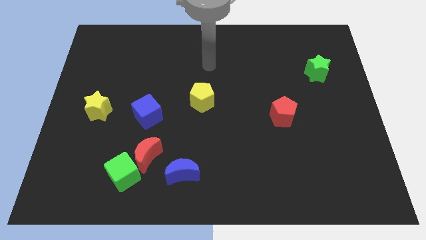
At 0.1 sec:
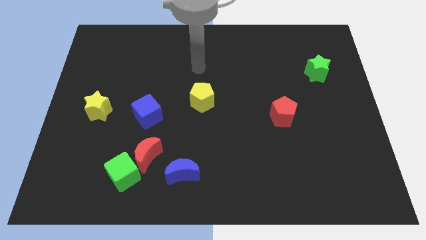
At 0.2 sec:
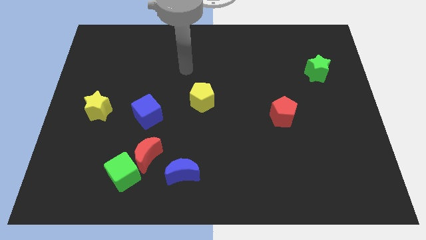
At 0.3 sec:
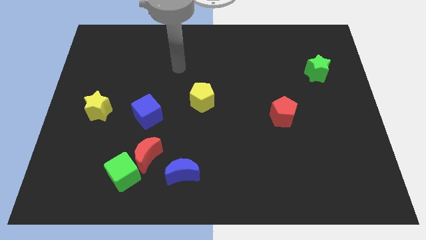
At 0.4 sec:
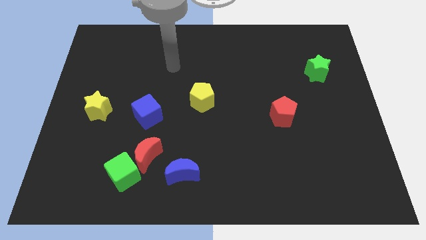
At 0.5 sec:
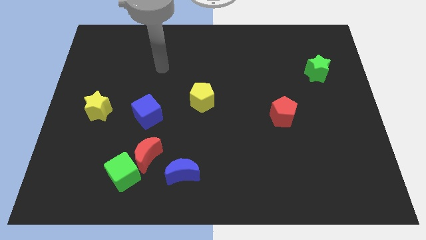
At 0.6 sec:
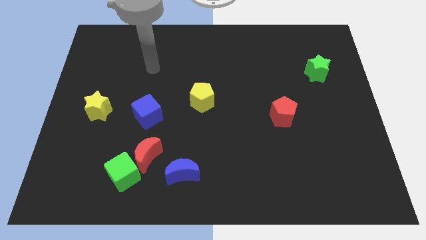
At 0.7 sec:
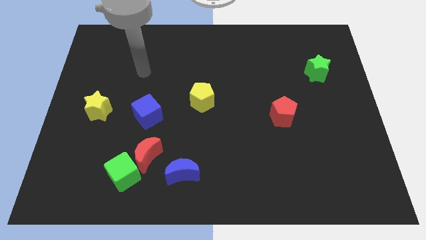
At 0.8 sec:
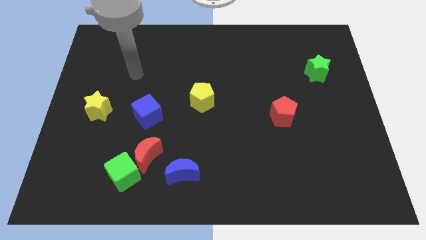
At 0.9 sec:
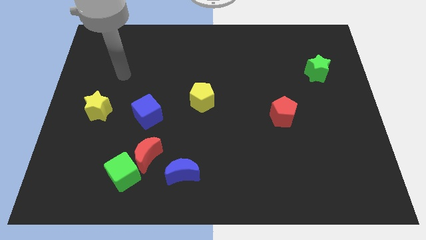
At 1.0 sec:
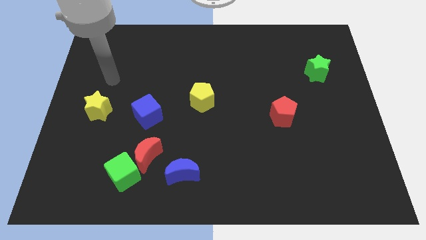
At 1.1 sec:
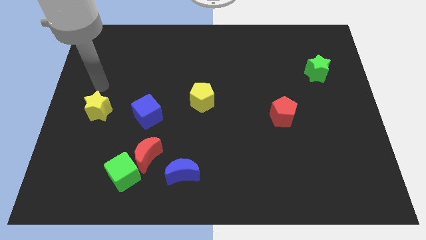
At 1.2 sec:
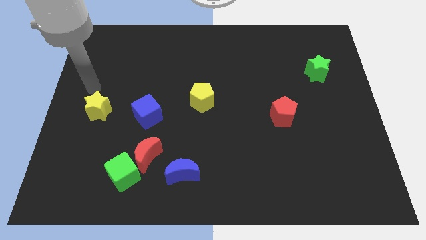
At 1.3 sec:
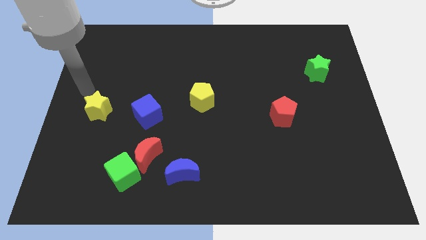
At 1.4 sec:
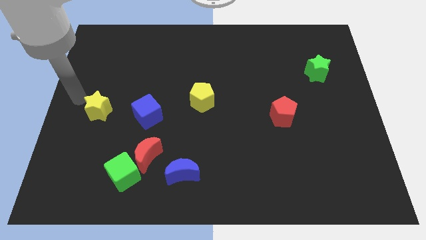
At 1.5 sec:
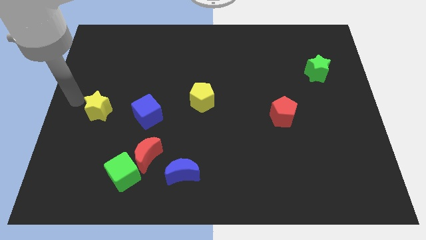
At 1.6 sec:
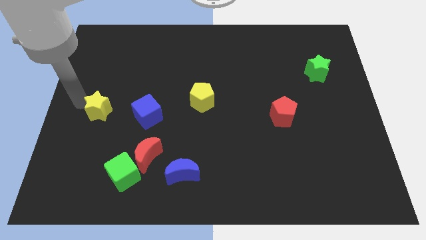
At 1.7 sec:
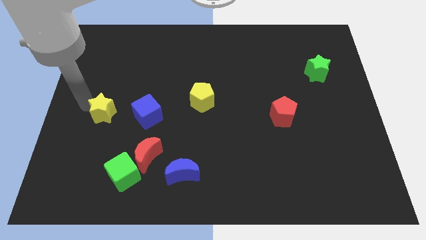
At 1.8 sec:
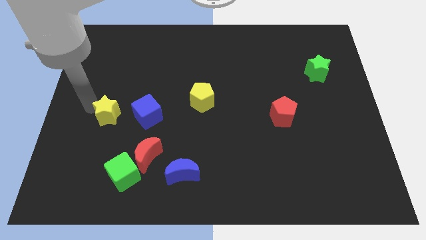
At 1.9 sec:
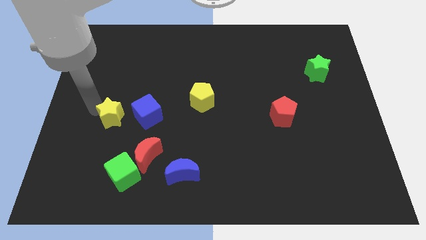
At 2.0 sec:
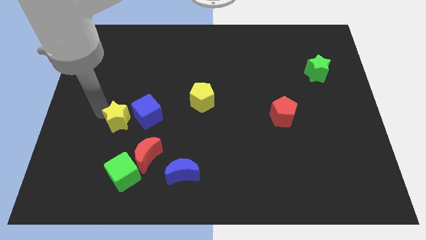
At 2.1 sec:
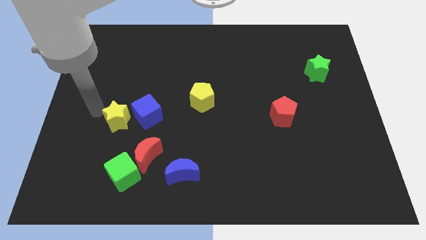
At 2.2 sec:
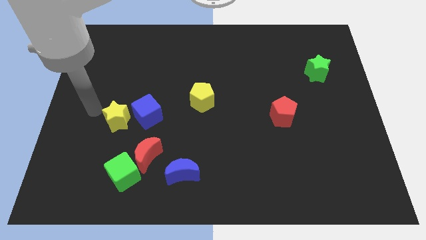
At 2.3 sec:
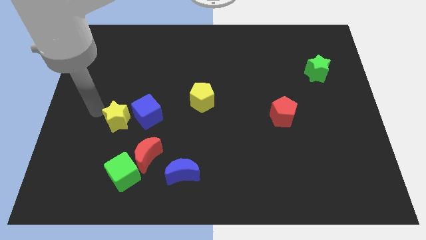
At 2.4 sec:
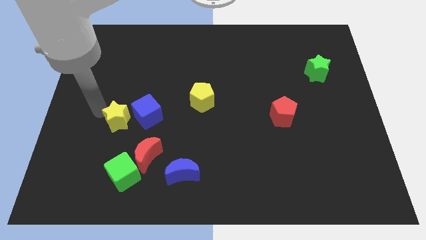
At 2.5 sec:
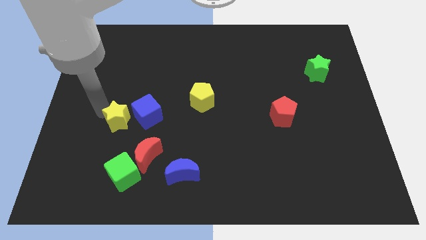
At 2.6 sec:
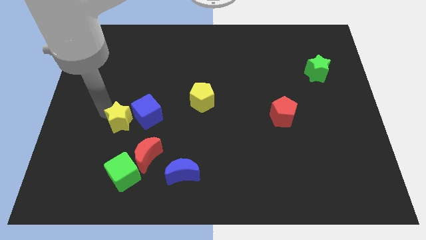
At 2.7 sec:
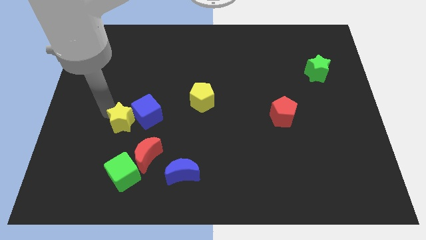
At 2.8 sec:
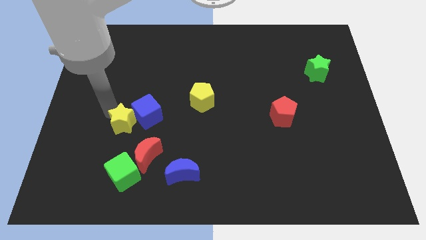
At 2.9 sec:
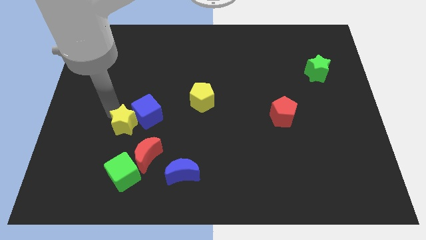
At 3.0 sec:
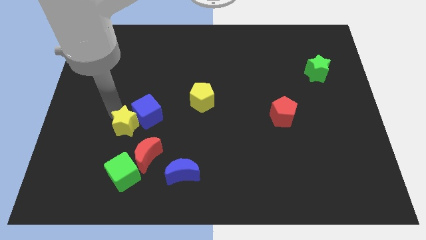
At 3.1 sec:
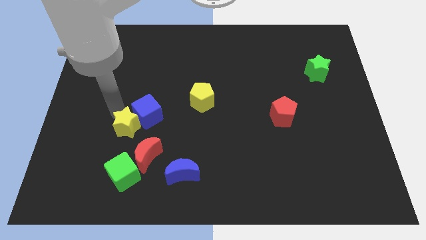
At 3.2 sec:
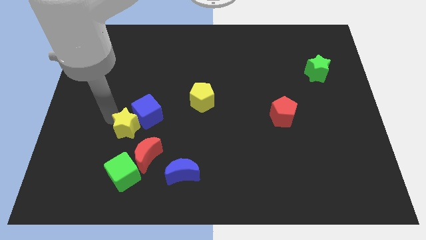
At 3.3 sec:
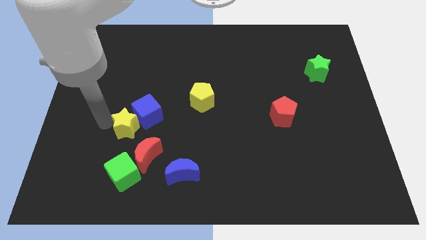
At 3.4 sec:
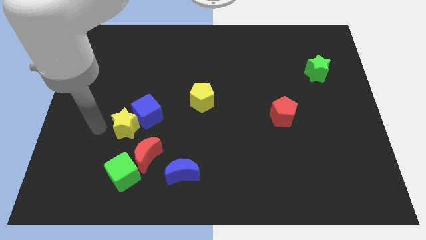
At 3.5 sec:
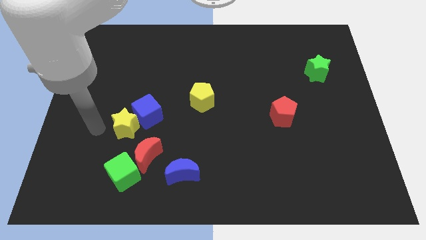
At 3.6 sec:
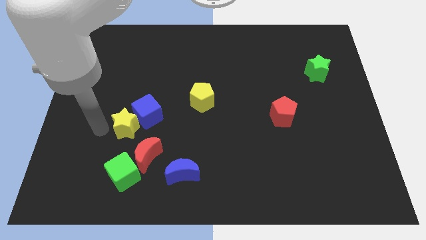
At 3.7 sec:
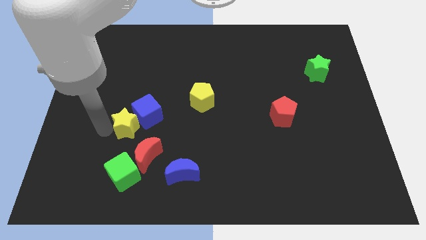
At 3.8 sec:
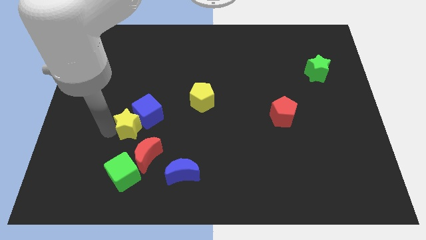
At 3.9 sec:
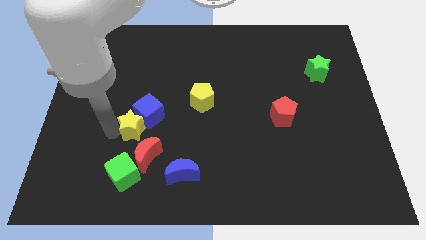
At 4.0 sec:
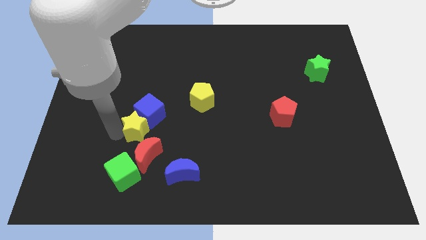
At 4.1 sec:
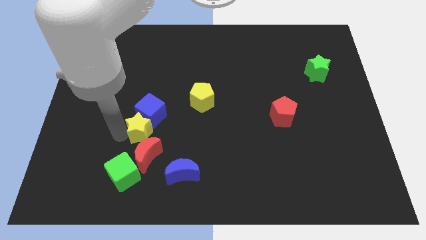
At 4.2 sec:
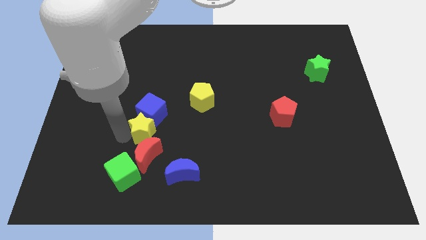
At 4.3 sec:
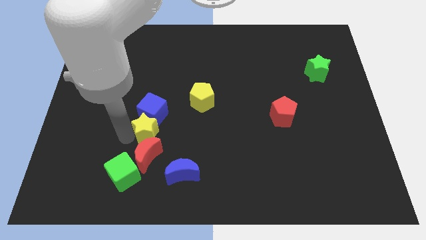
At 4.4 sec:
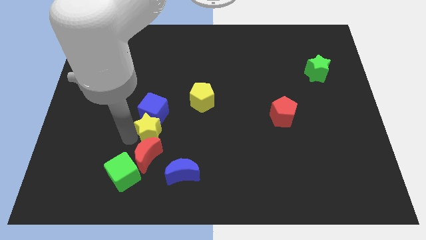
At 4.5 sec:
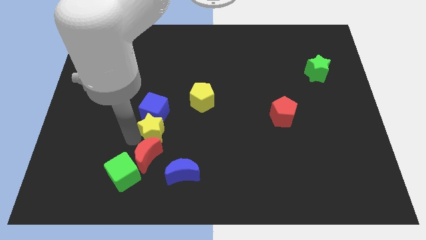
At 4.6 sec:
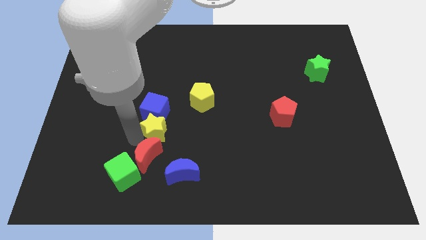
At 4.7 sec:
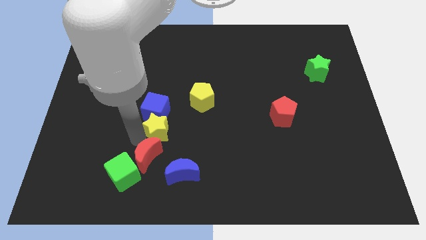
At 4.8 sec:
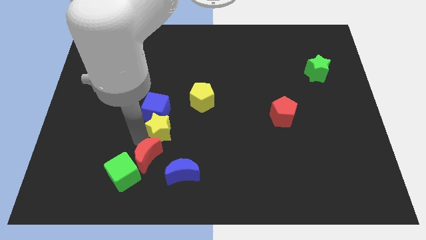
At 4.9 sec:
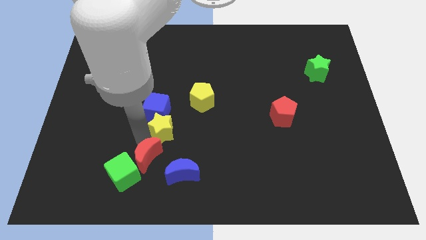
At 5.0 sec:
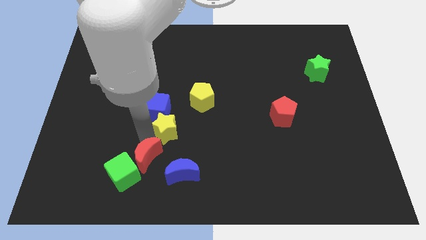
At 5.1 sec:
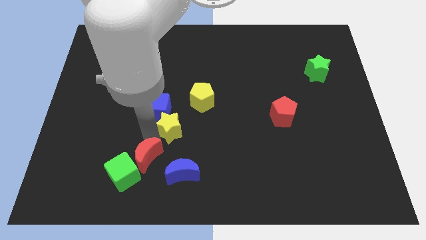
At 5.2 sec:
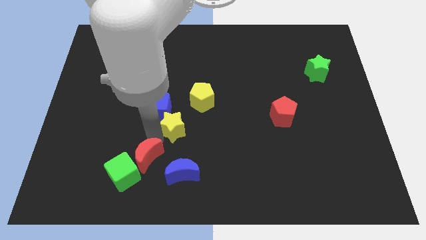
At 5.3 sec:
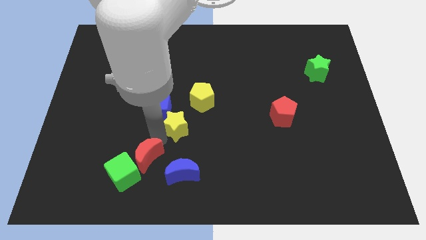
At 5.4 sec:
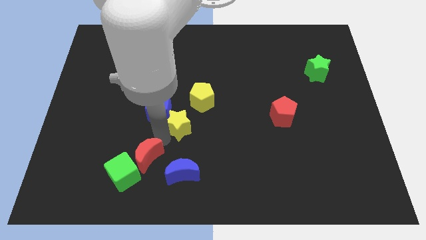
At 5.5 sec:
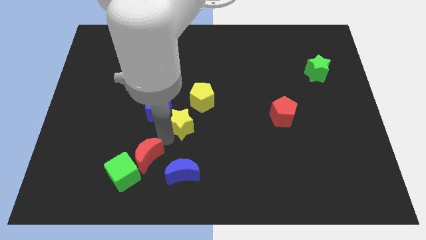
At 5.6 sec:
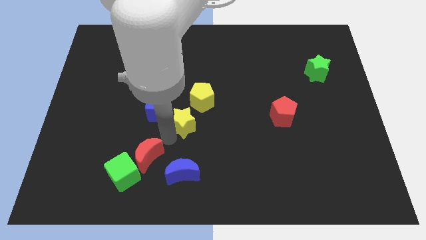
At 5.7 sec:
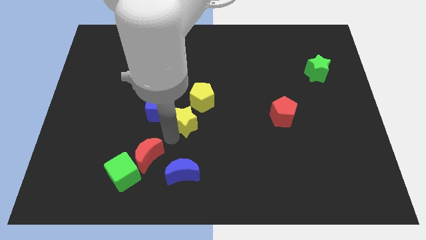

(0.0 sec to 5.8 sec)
move the yellow star to the right

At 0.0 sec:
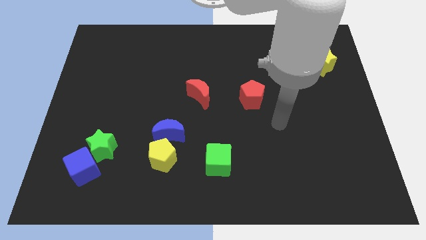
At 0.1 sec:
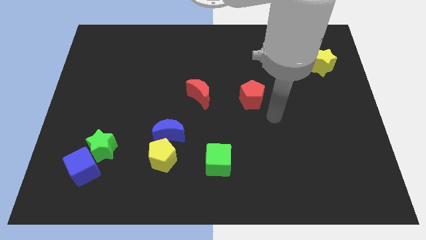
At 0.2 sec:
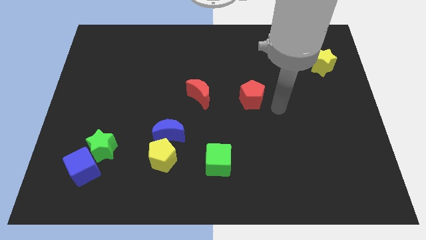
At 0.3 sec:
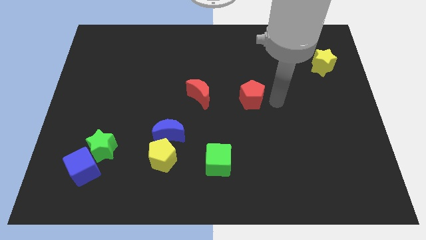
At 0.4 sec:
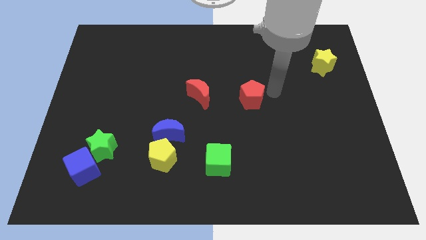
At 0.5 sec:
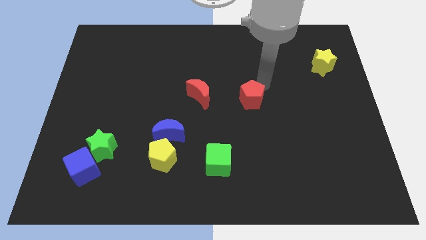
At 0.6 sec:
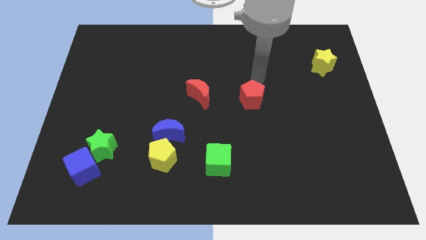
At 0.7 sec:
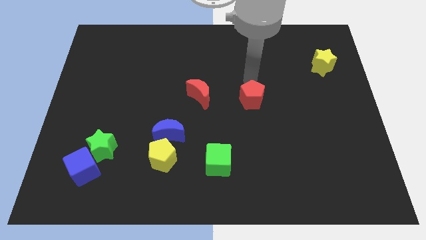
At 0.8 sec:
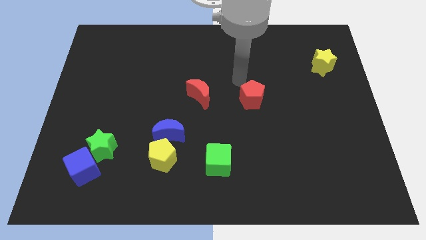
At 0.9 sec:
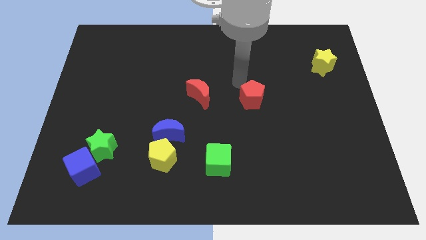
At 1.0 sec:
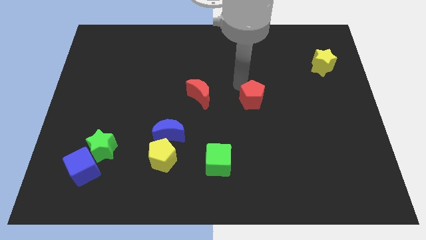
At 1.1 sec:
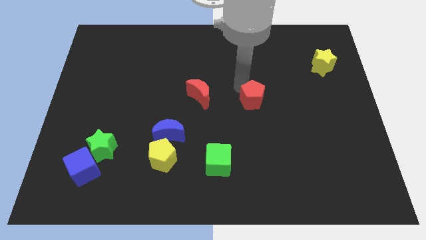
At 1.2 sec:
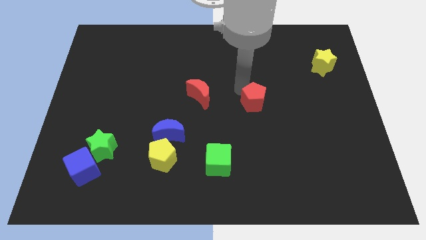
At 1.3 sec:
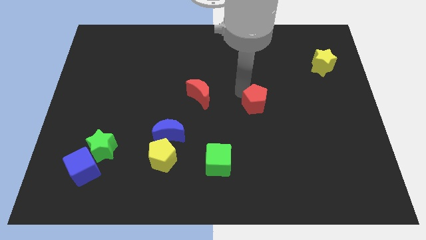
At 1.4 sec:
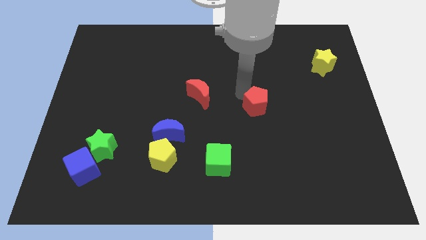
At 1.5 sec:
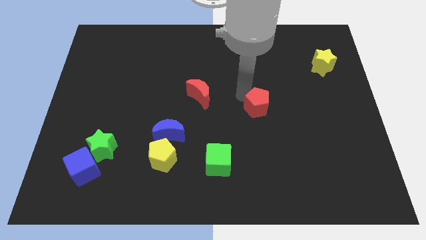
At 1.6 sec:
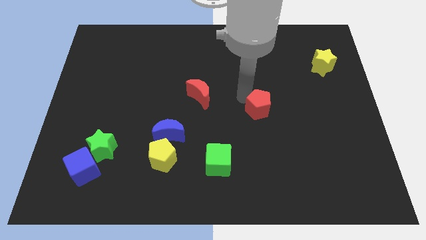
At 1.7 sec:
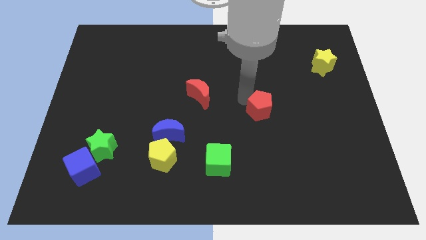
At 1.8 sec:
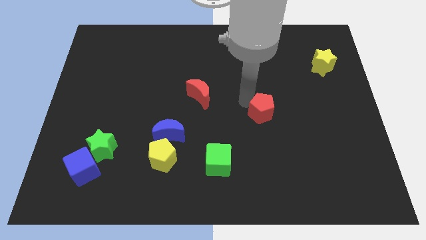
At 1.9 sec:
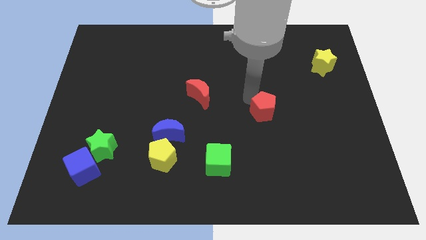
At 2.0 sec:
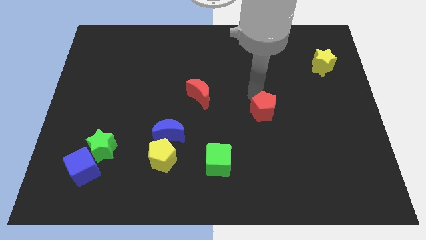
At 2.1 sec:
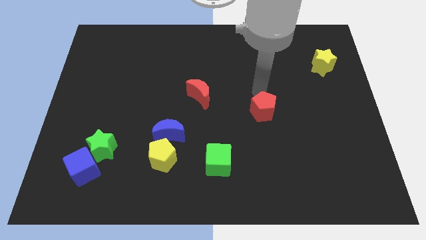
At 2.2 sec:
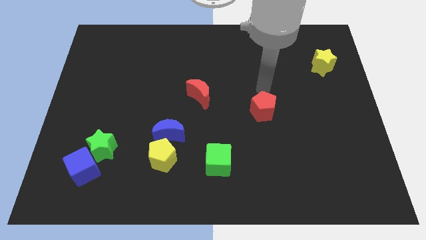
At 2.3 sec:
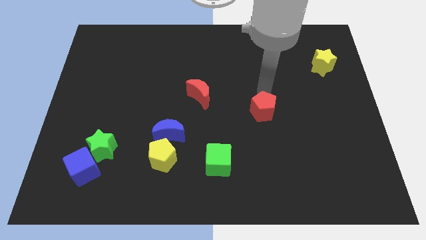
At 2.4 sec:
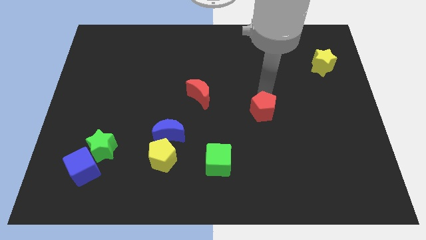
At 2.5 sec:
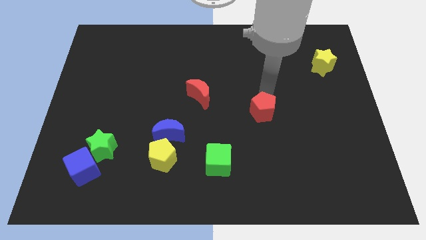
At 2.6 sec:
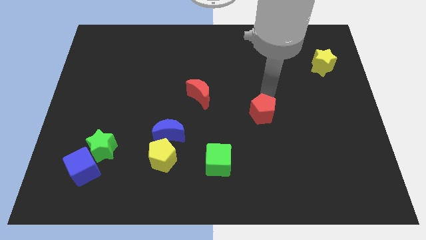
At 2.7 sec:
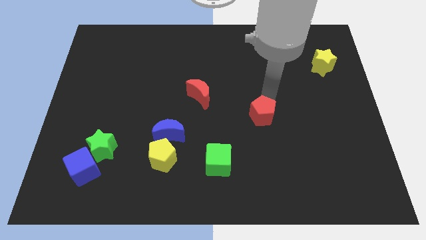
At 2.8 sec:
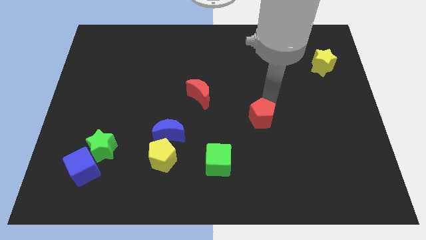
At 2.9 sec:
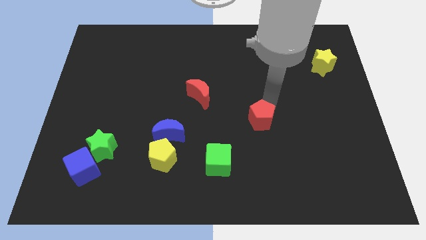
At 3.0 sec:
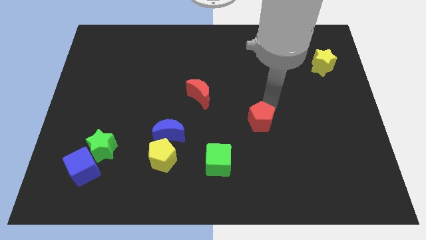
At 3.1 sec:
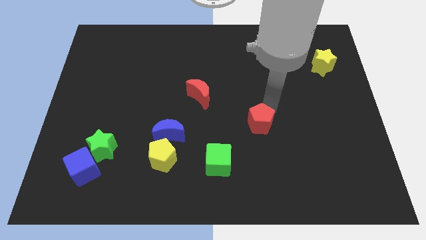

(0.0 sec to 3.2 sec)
slide the red pentagon a little downwards
